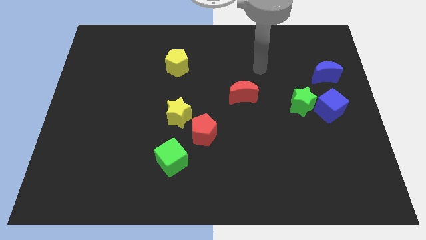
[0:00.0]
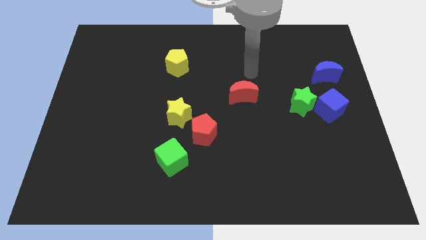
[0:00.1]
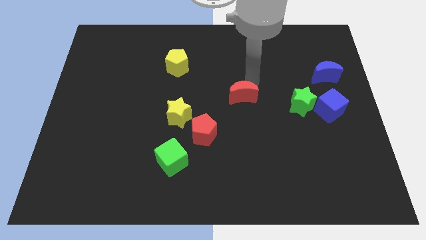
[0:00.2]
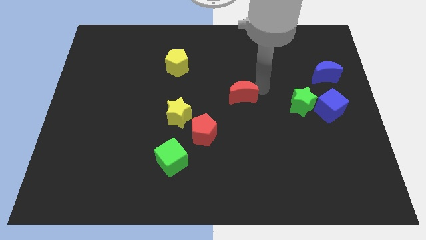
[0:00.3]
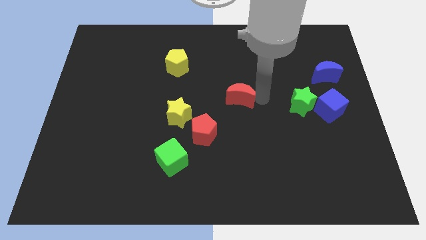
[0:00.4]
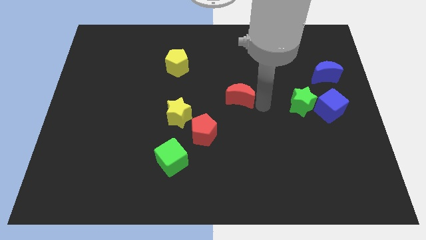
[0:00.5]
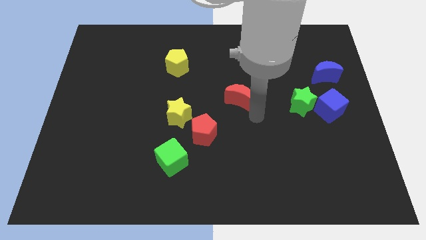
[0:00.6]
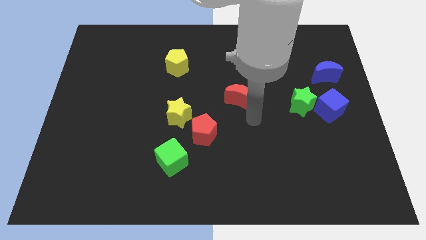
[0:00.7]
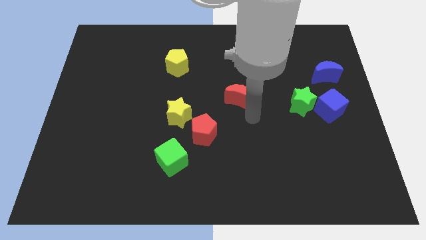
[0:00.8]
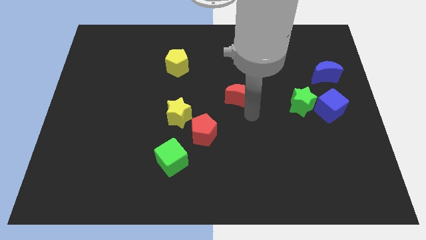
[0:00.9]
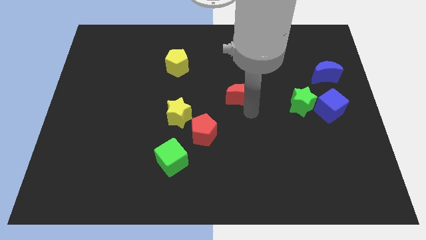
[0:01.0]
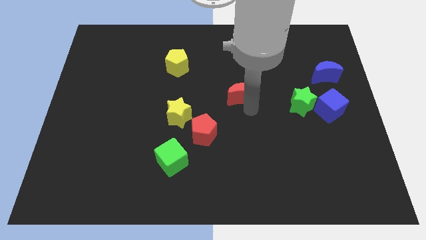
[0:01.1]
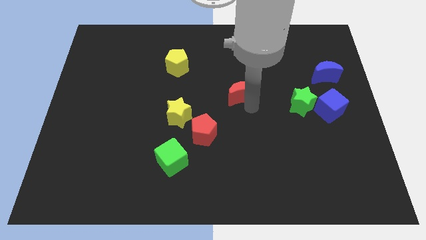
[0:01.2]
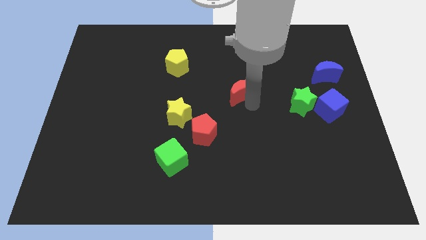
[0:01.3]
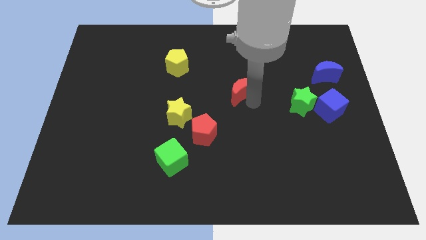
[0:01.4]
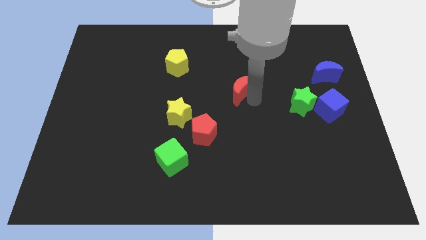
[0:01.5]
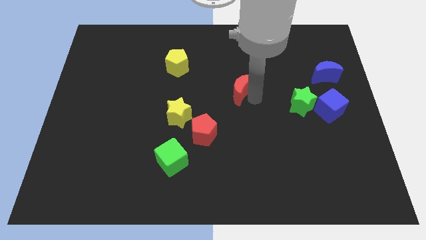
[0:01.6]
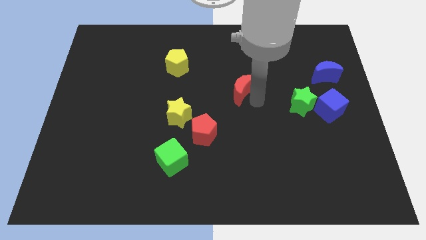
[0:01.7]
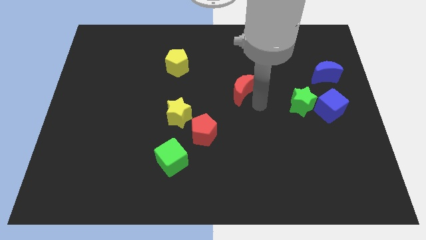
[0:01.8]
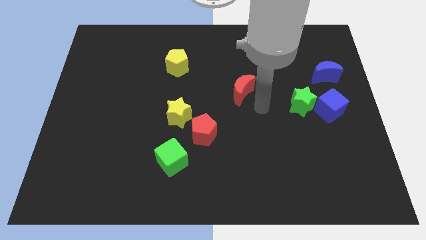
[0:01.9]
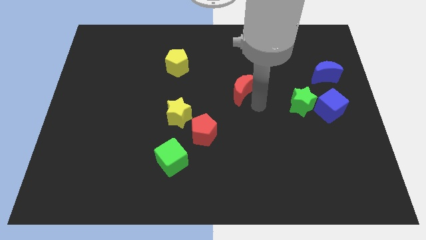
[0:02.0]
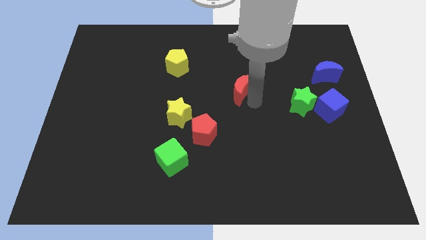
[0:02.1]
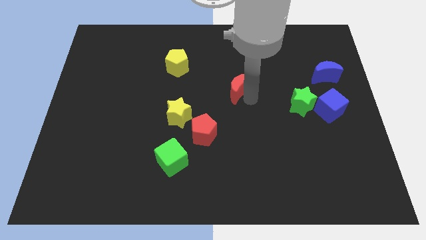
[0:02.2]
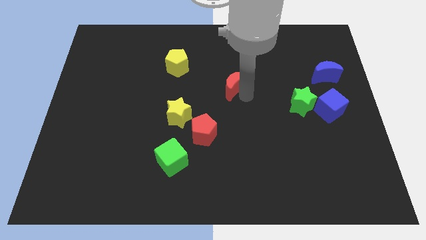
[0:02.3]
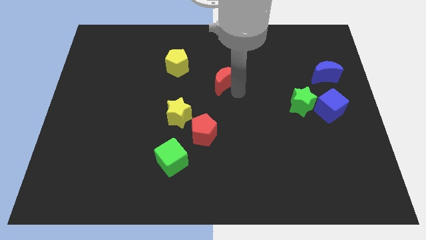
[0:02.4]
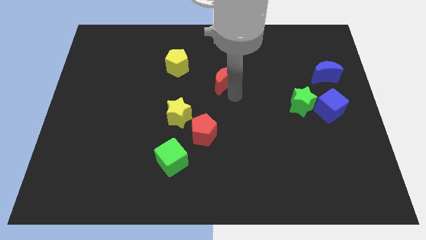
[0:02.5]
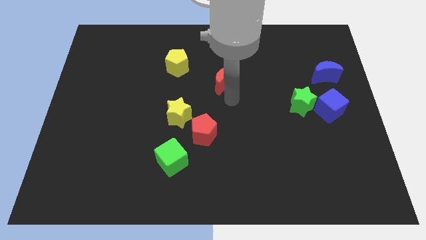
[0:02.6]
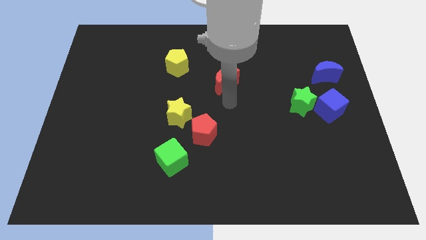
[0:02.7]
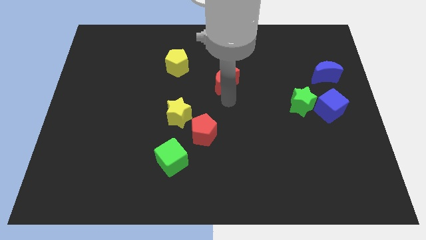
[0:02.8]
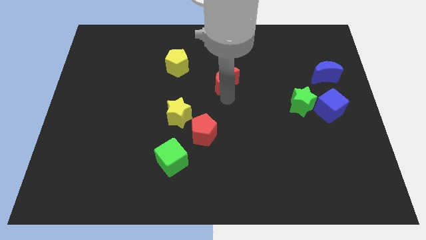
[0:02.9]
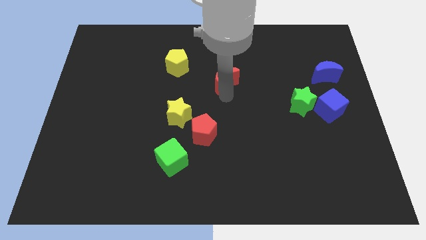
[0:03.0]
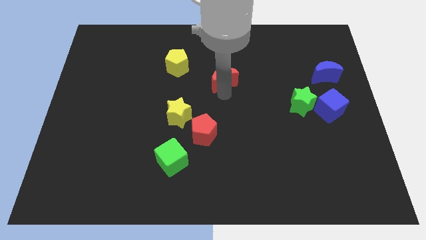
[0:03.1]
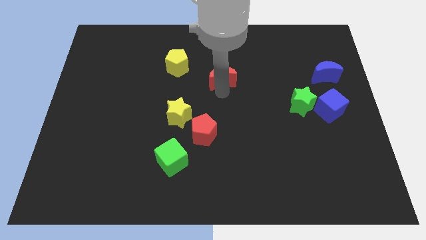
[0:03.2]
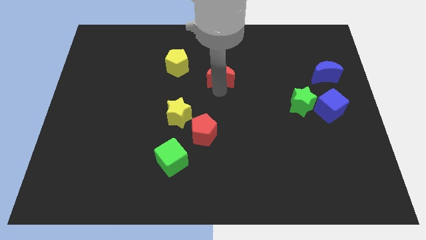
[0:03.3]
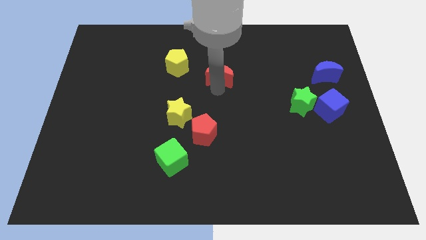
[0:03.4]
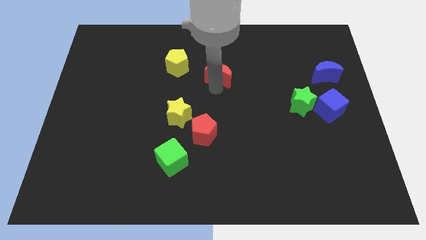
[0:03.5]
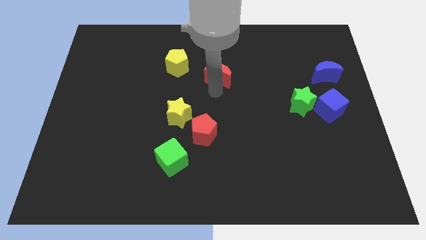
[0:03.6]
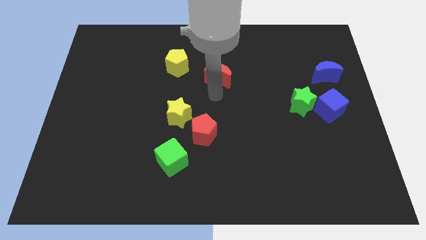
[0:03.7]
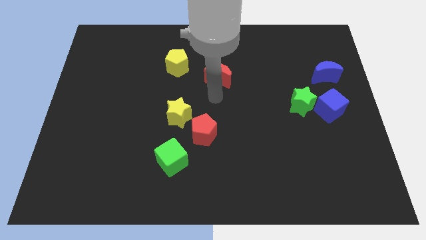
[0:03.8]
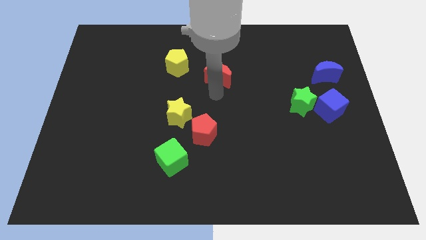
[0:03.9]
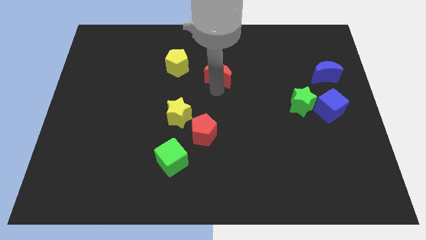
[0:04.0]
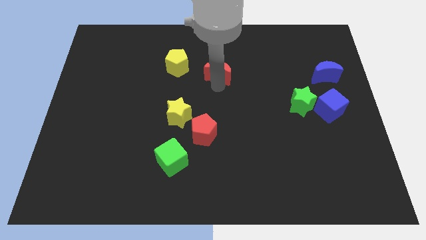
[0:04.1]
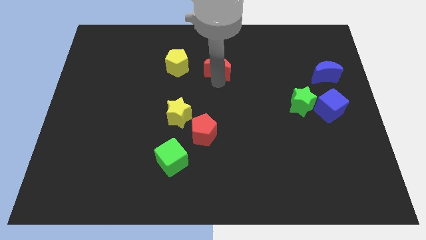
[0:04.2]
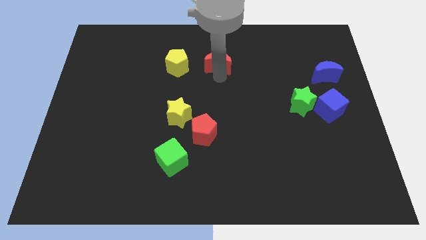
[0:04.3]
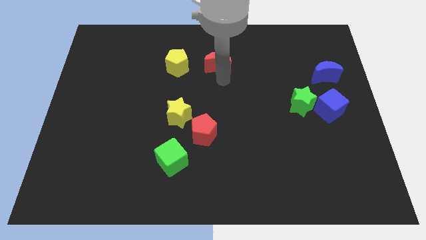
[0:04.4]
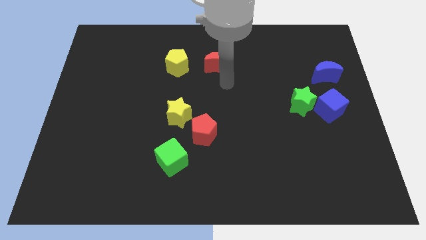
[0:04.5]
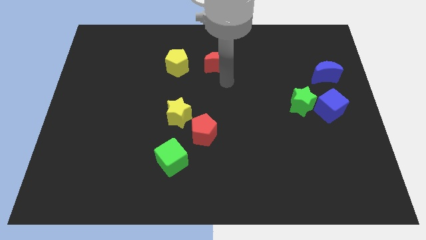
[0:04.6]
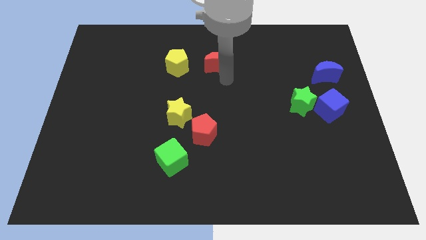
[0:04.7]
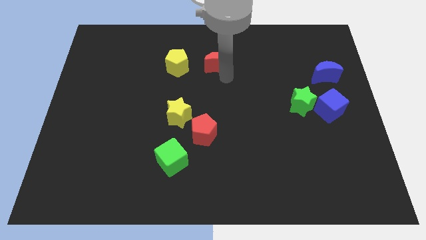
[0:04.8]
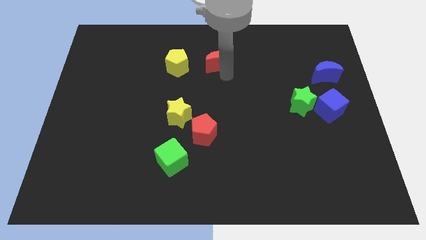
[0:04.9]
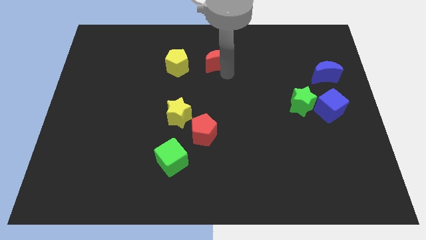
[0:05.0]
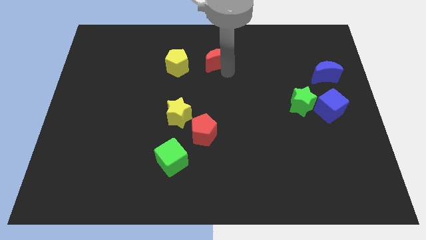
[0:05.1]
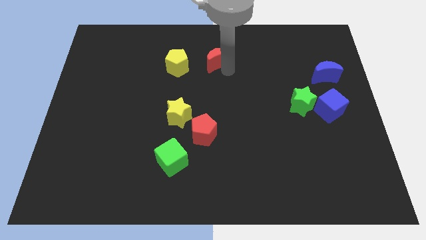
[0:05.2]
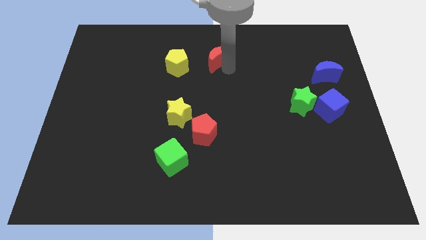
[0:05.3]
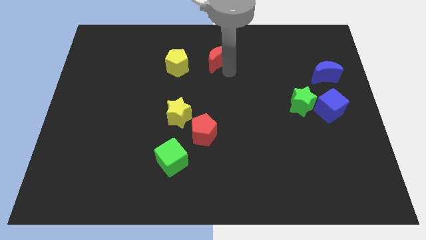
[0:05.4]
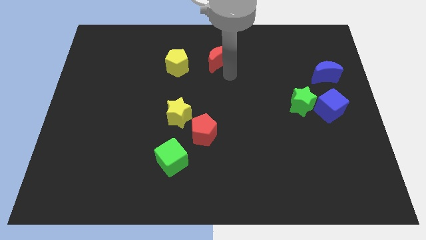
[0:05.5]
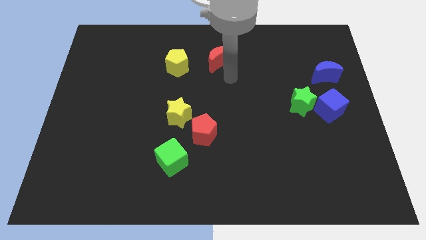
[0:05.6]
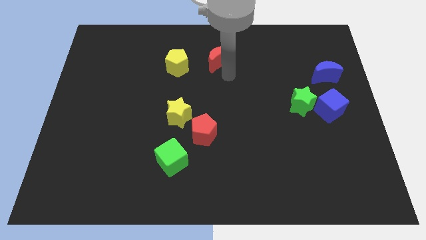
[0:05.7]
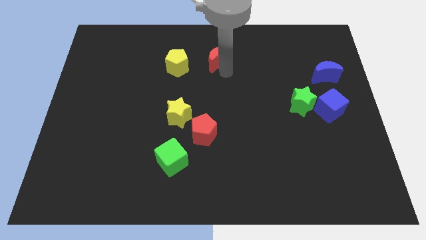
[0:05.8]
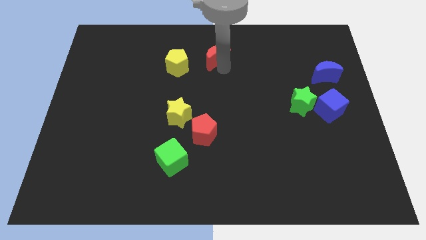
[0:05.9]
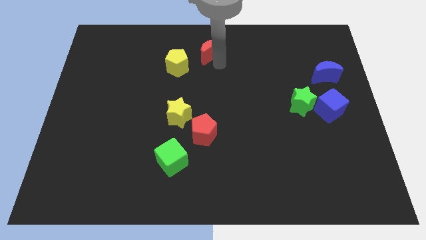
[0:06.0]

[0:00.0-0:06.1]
move the red moon to the top side
